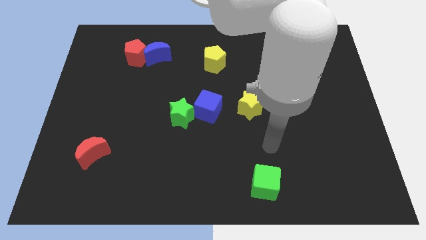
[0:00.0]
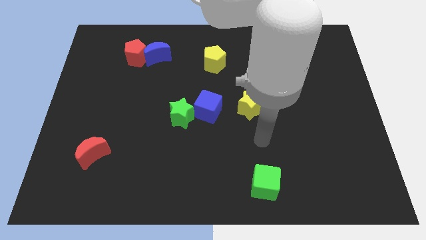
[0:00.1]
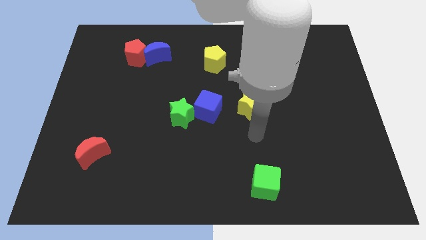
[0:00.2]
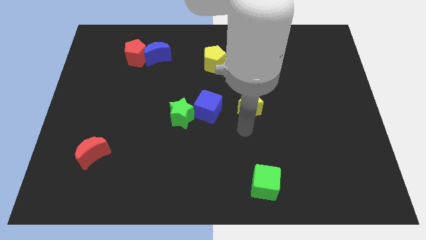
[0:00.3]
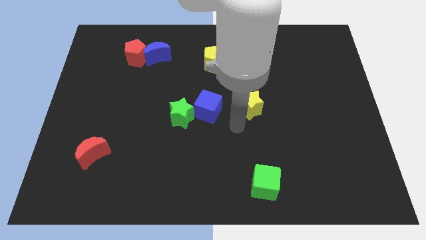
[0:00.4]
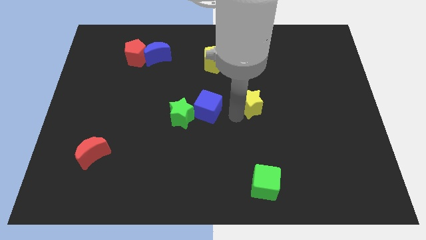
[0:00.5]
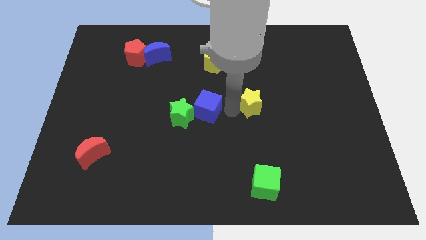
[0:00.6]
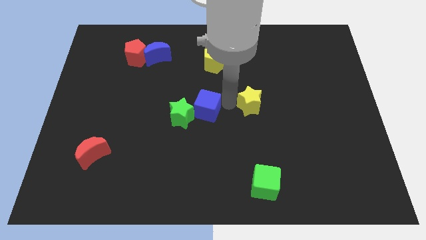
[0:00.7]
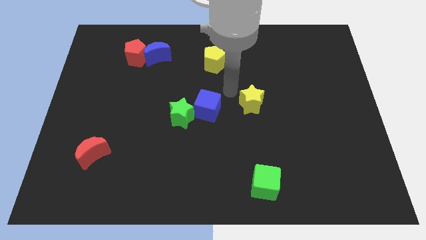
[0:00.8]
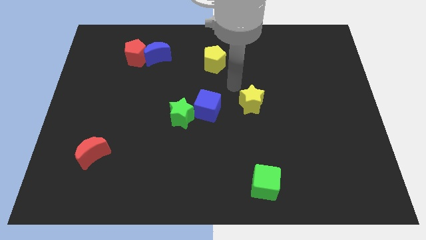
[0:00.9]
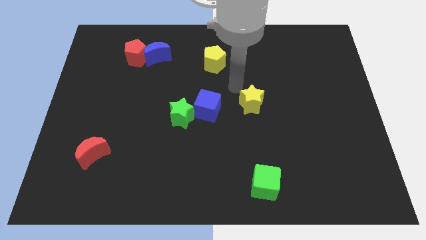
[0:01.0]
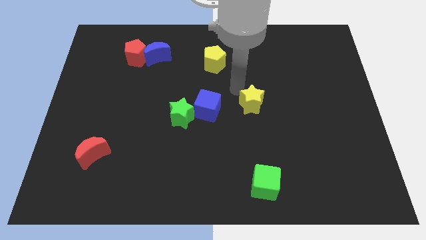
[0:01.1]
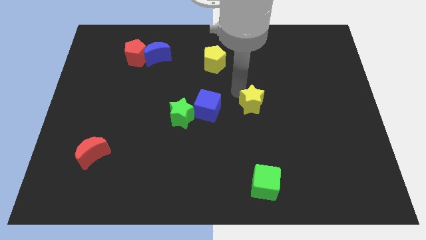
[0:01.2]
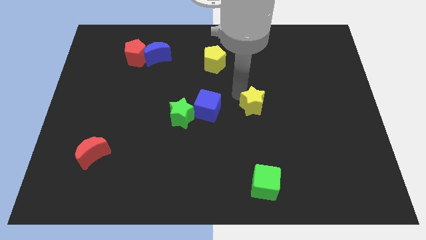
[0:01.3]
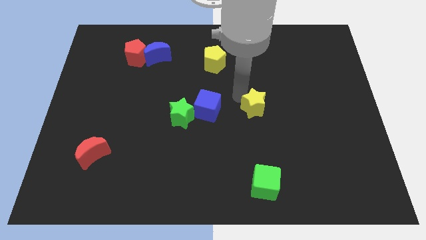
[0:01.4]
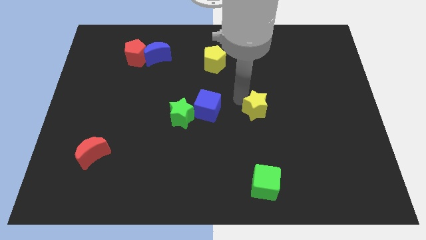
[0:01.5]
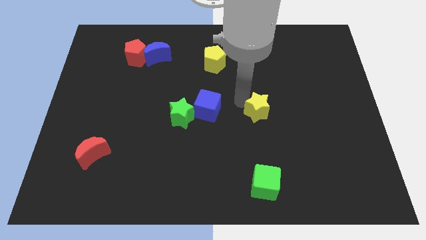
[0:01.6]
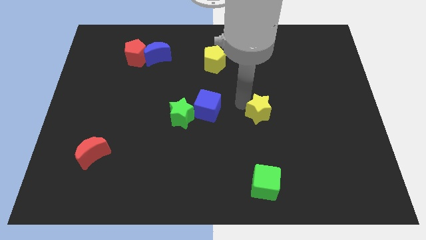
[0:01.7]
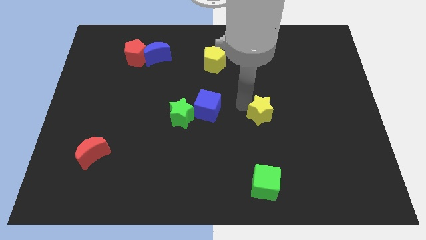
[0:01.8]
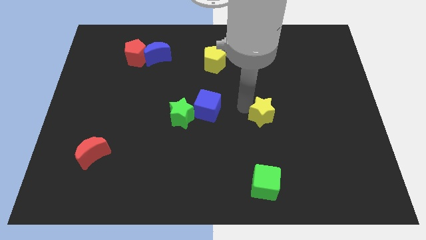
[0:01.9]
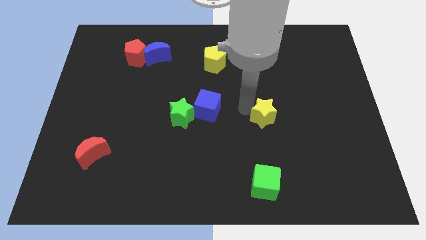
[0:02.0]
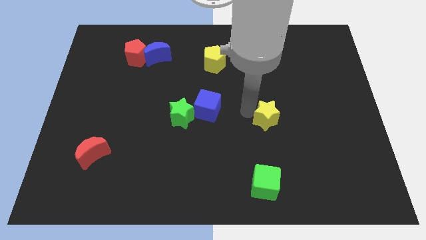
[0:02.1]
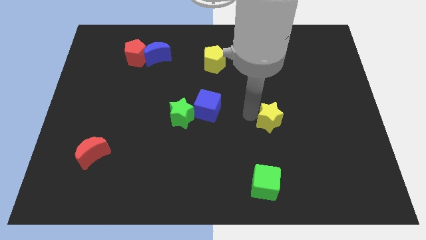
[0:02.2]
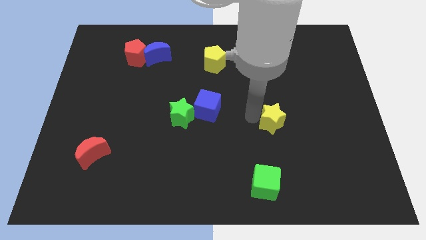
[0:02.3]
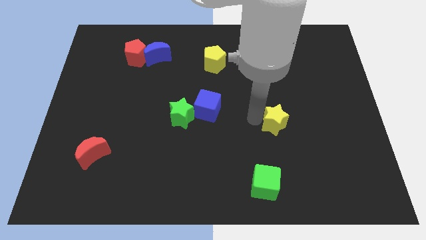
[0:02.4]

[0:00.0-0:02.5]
push the yellow star down and to the right slightly

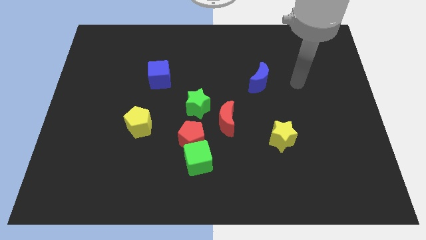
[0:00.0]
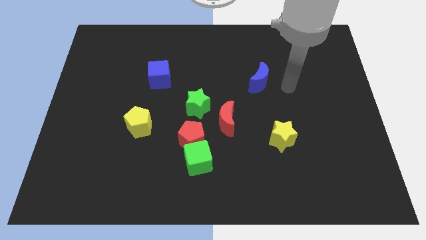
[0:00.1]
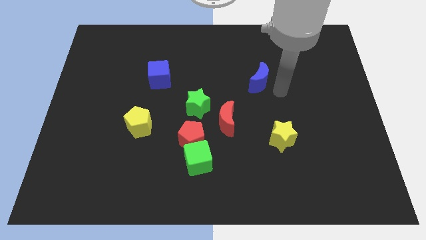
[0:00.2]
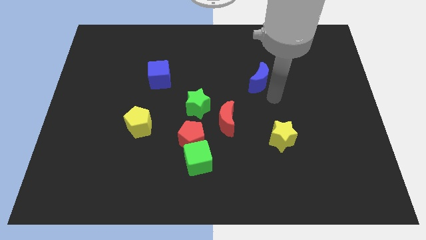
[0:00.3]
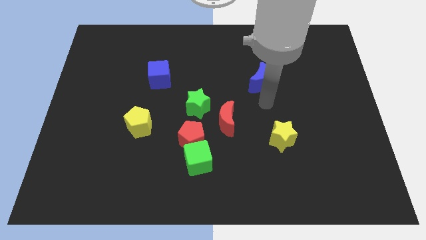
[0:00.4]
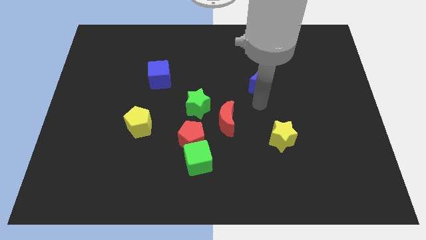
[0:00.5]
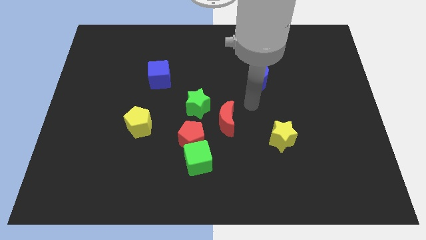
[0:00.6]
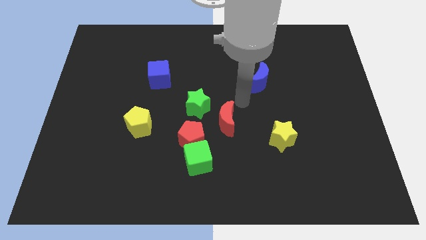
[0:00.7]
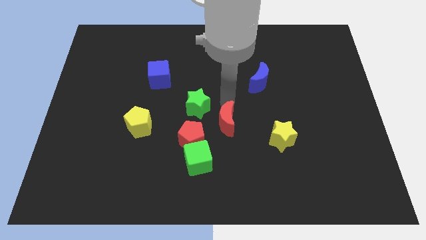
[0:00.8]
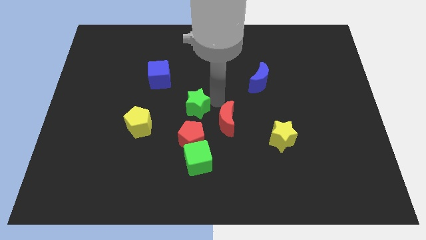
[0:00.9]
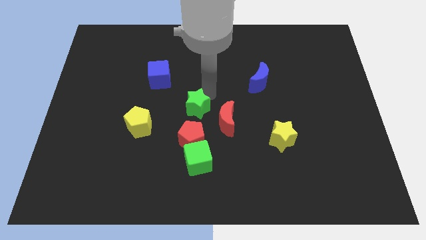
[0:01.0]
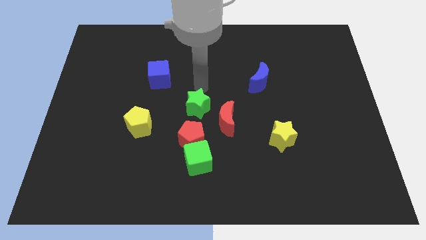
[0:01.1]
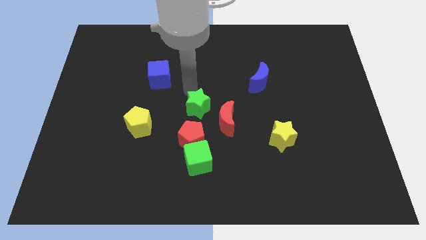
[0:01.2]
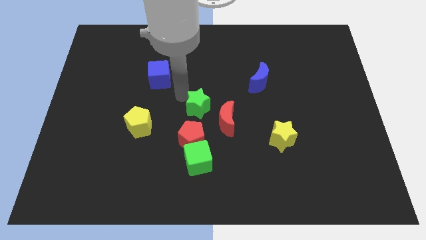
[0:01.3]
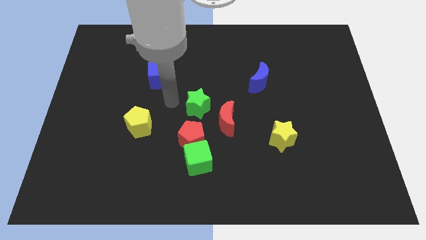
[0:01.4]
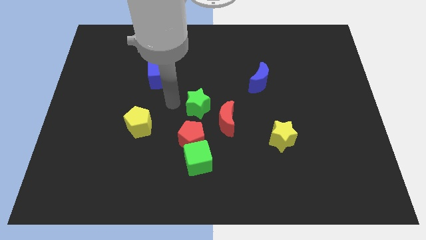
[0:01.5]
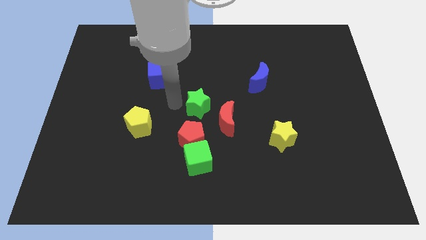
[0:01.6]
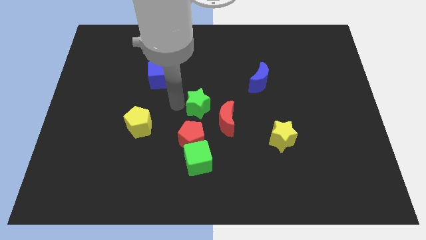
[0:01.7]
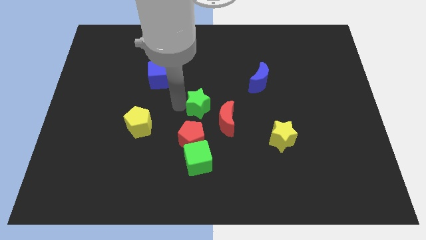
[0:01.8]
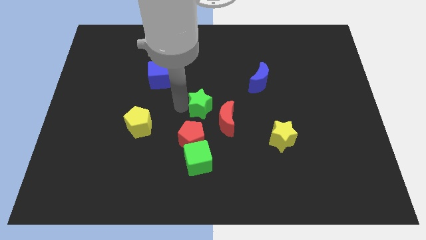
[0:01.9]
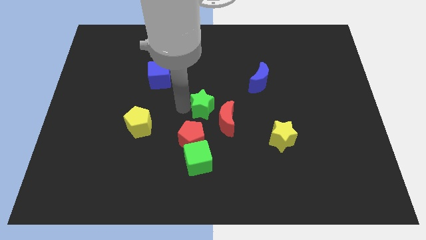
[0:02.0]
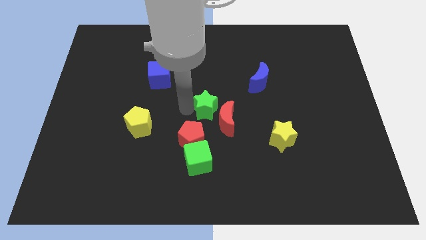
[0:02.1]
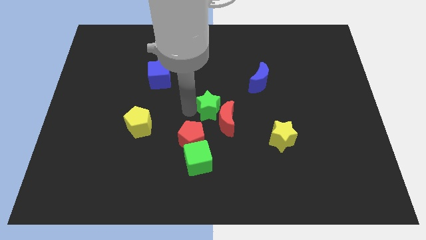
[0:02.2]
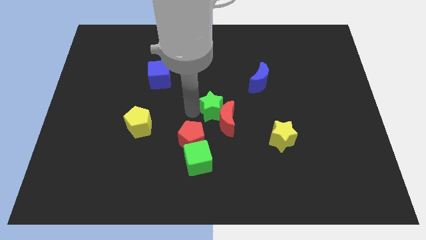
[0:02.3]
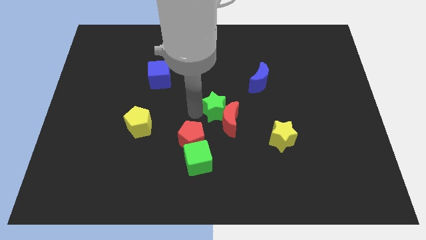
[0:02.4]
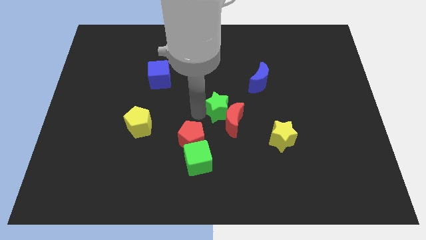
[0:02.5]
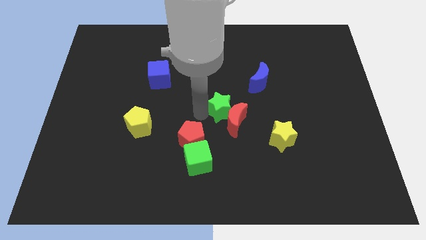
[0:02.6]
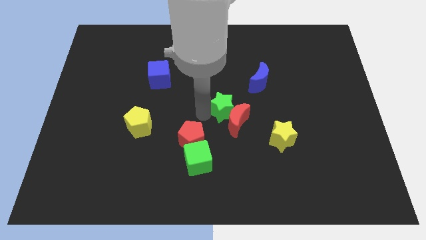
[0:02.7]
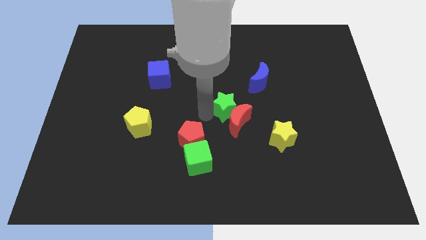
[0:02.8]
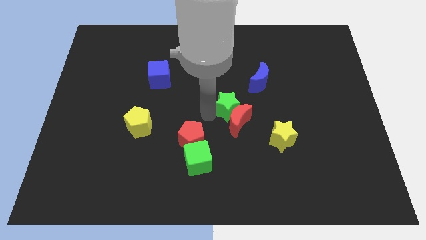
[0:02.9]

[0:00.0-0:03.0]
move the green star to the right slightly

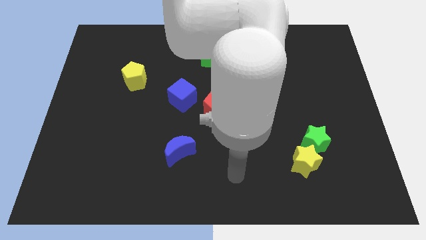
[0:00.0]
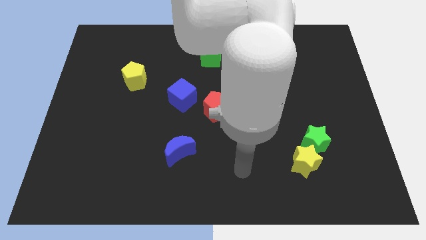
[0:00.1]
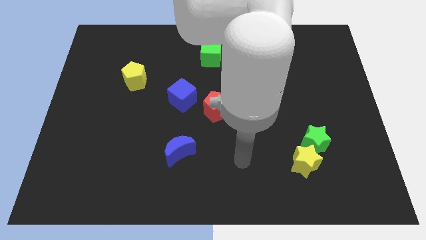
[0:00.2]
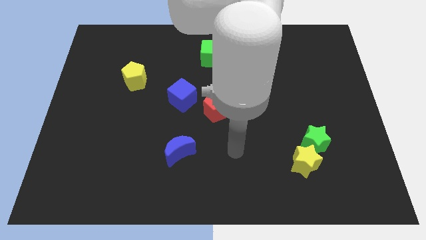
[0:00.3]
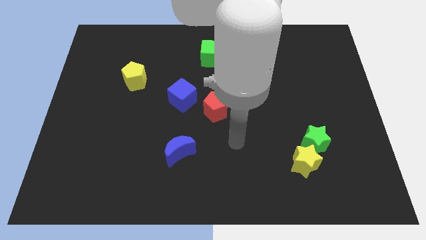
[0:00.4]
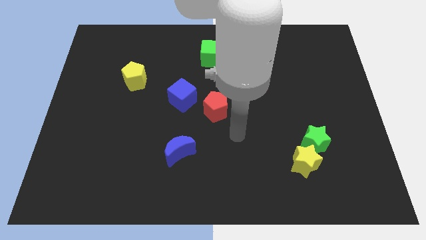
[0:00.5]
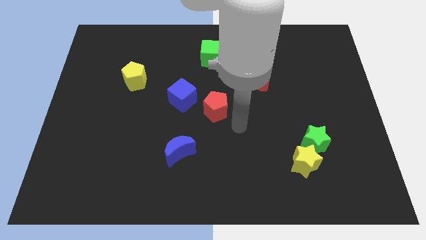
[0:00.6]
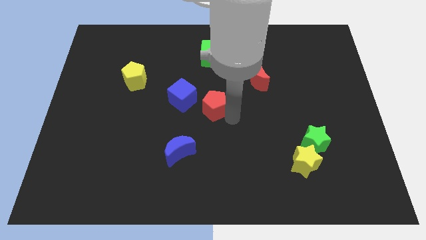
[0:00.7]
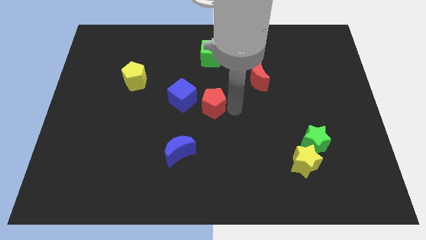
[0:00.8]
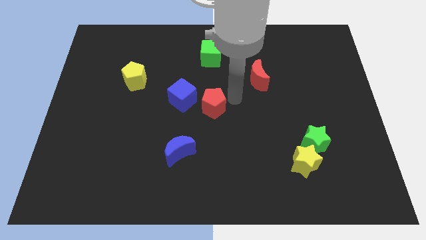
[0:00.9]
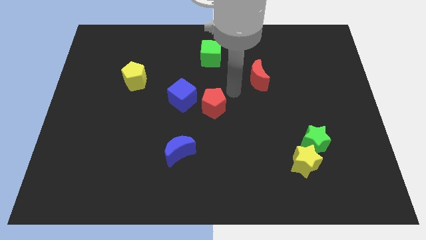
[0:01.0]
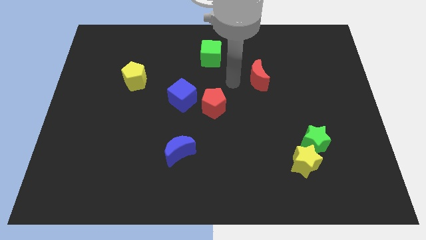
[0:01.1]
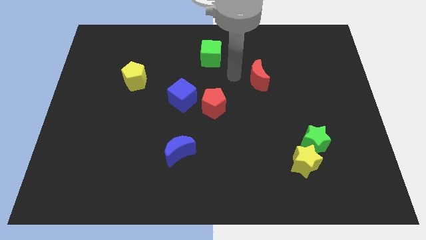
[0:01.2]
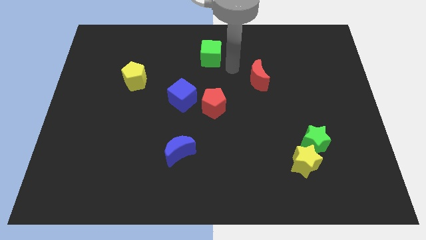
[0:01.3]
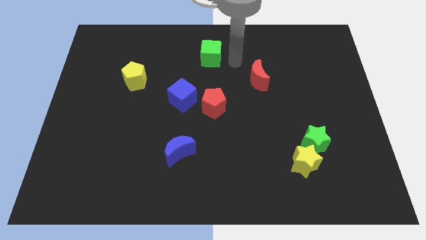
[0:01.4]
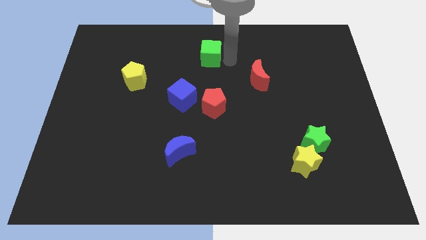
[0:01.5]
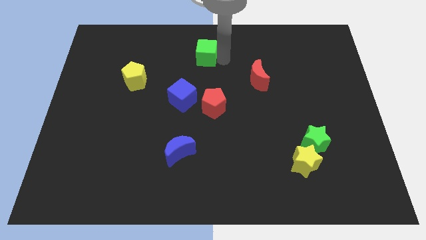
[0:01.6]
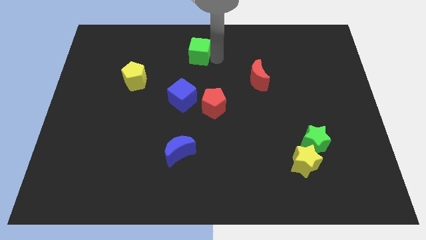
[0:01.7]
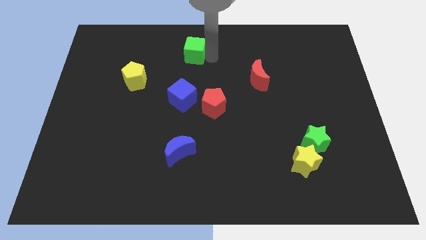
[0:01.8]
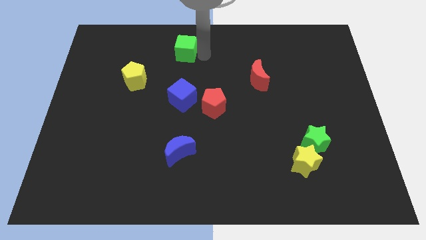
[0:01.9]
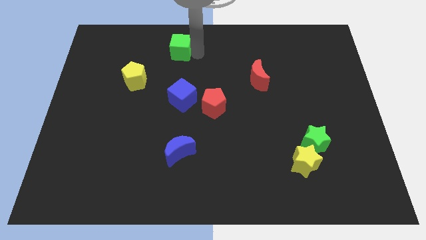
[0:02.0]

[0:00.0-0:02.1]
slightly push the green cube to the left

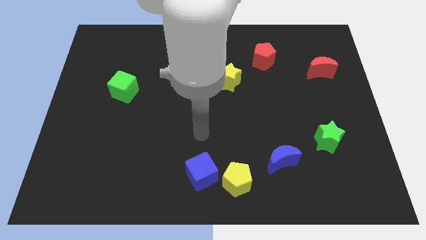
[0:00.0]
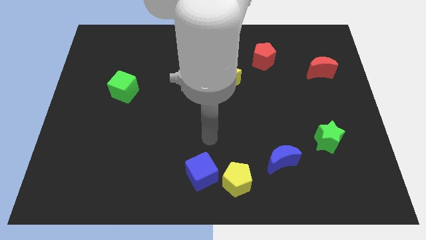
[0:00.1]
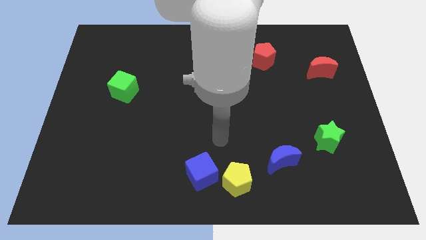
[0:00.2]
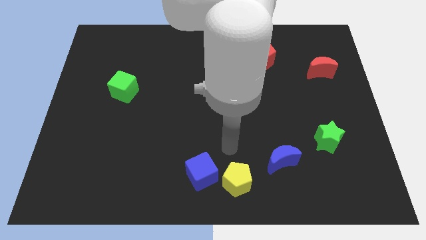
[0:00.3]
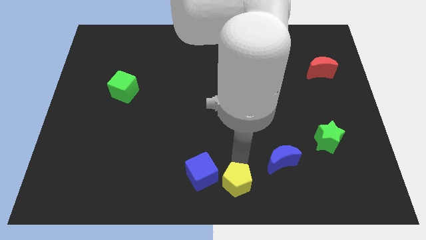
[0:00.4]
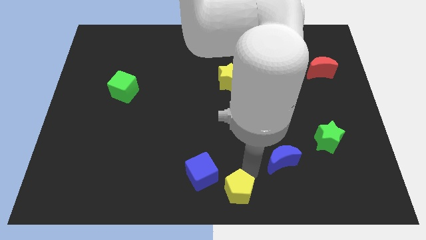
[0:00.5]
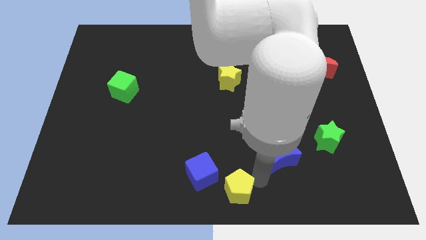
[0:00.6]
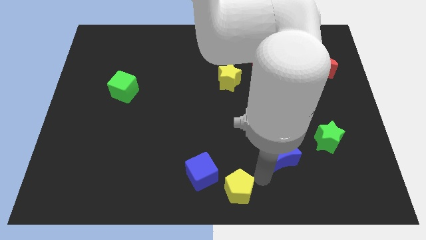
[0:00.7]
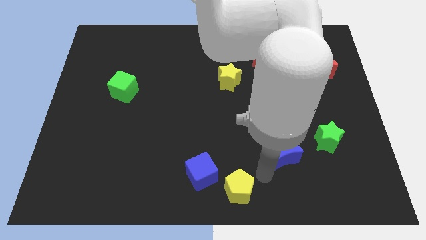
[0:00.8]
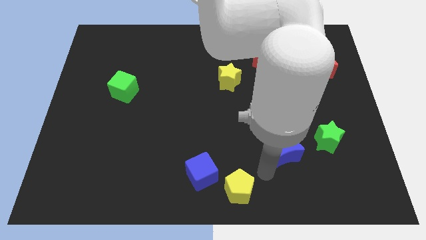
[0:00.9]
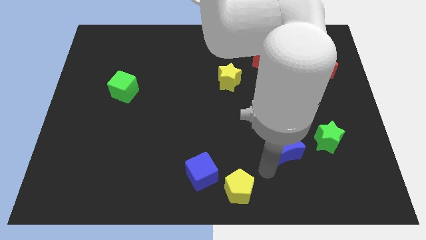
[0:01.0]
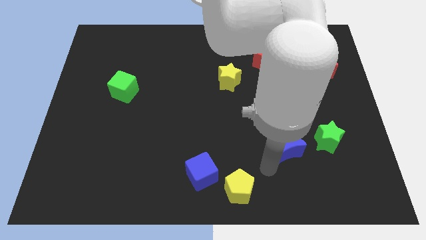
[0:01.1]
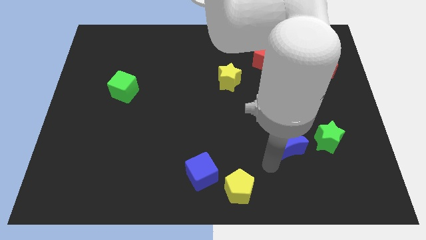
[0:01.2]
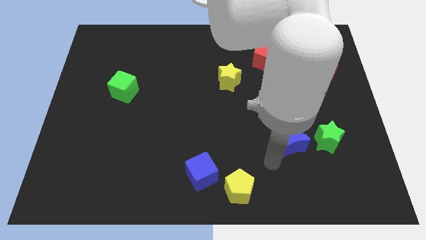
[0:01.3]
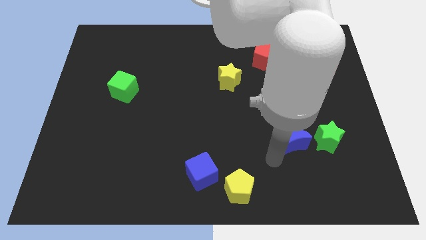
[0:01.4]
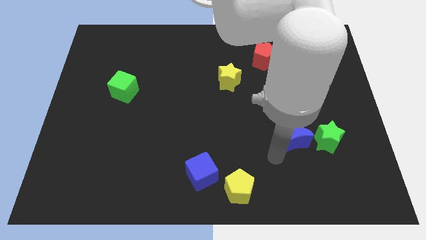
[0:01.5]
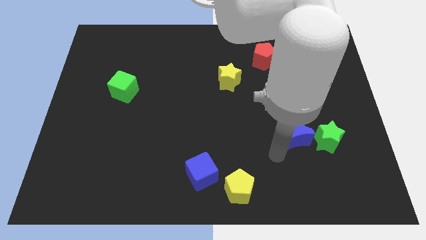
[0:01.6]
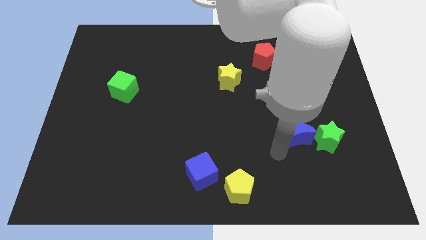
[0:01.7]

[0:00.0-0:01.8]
slide the blue moon slightly up and then to the right
